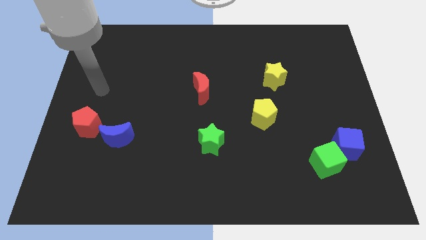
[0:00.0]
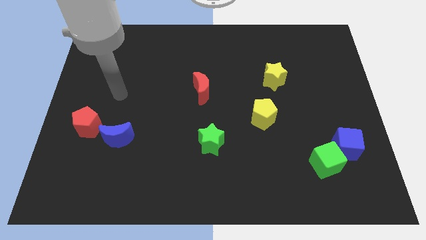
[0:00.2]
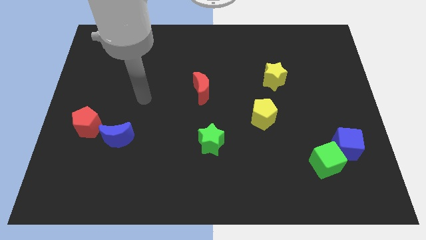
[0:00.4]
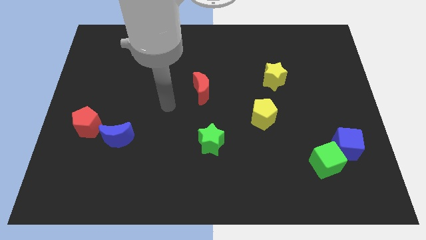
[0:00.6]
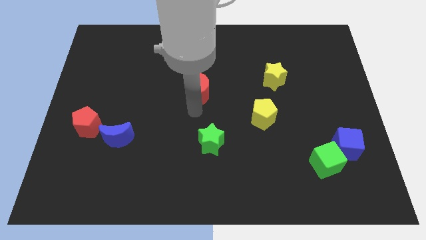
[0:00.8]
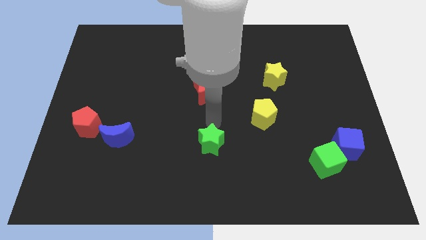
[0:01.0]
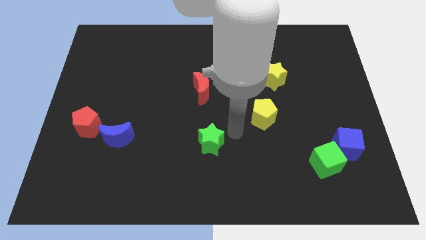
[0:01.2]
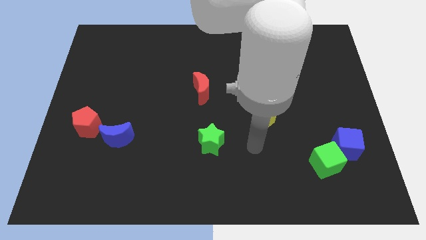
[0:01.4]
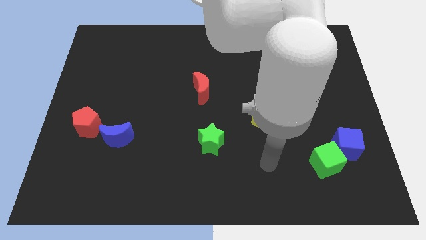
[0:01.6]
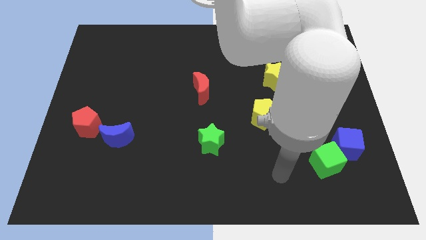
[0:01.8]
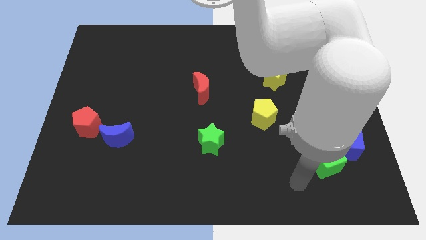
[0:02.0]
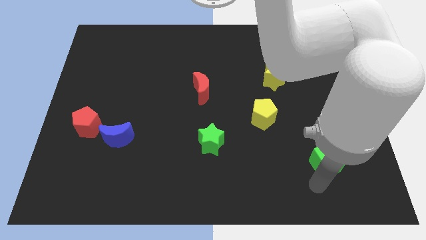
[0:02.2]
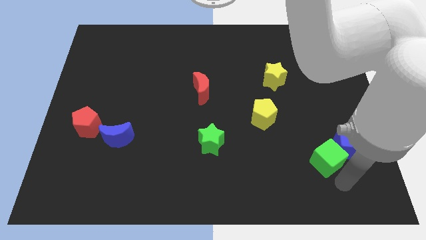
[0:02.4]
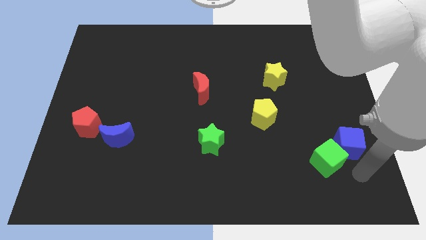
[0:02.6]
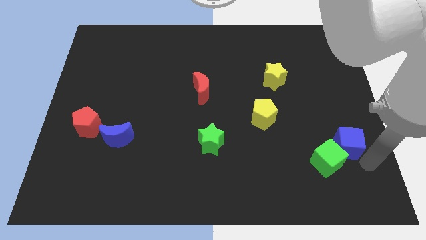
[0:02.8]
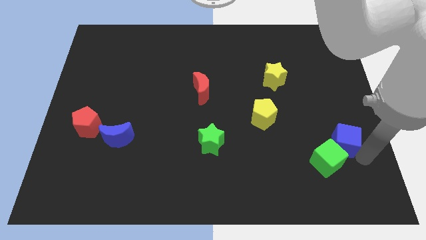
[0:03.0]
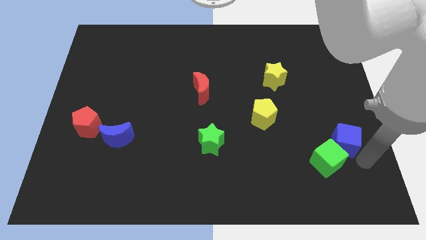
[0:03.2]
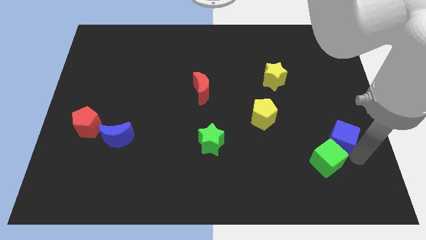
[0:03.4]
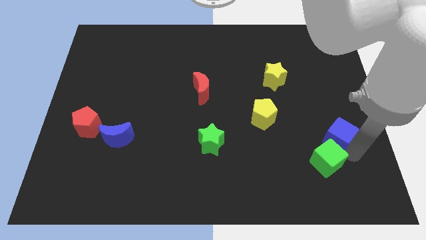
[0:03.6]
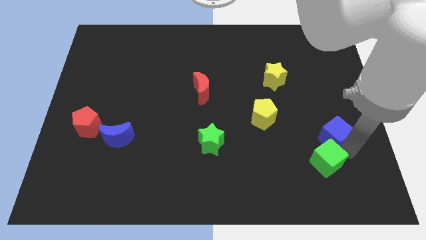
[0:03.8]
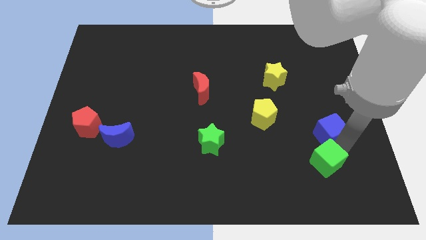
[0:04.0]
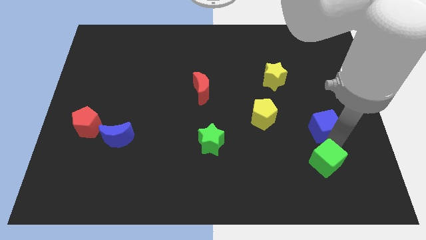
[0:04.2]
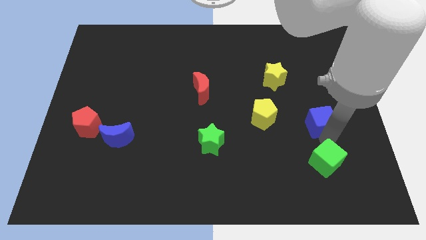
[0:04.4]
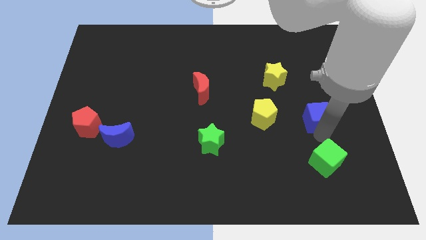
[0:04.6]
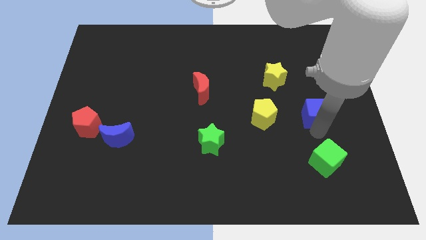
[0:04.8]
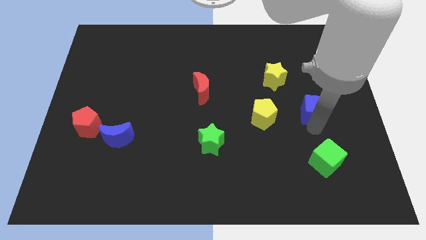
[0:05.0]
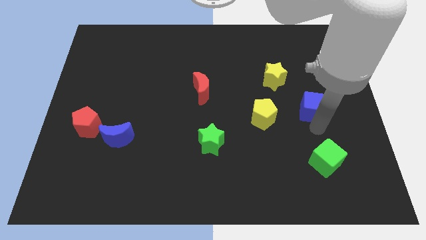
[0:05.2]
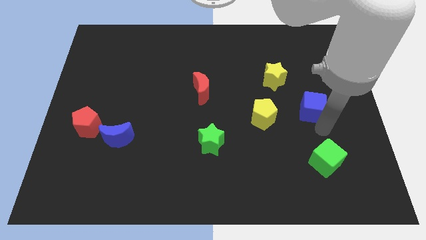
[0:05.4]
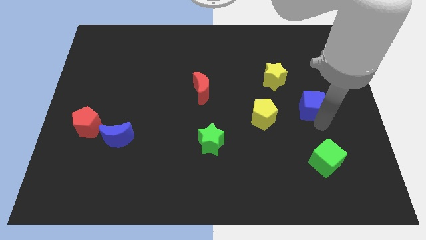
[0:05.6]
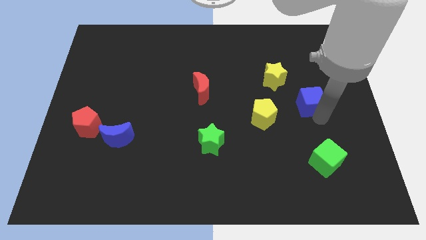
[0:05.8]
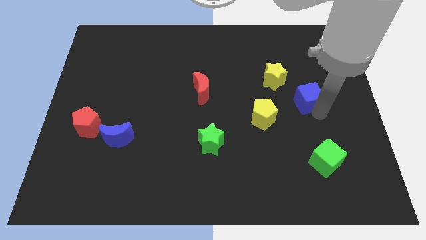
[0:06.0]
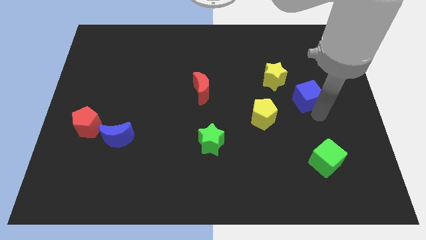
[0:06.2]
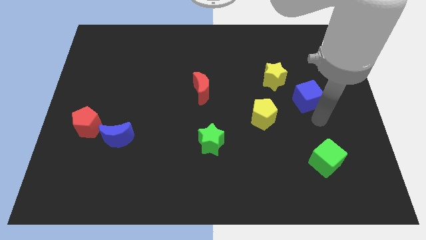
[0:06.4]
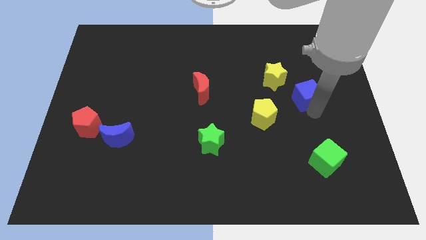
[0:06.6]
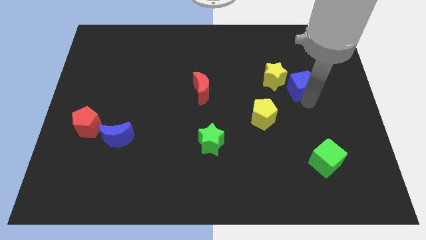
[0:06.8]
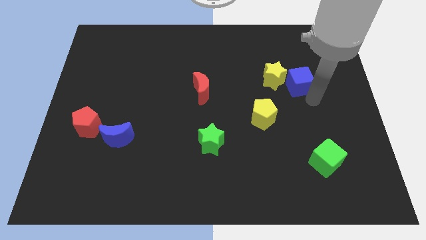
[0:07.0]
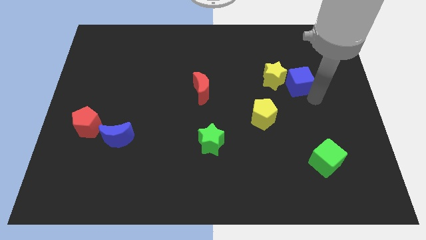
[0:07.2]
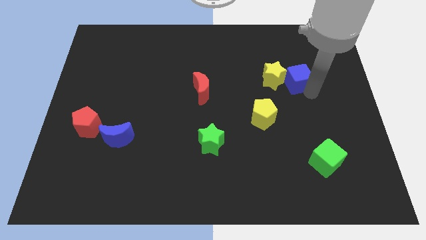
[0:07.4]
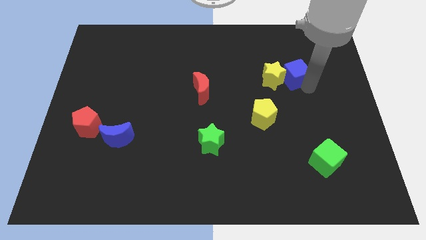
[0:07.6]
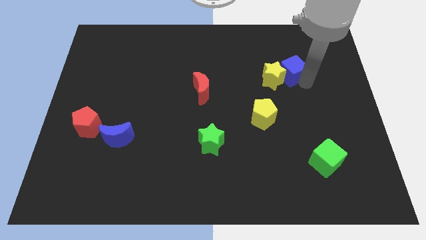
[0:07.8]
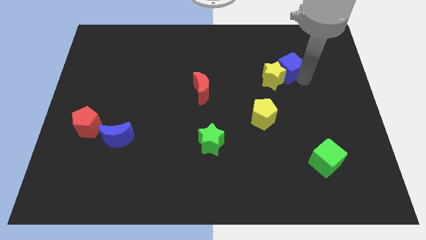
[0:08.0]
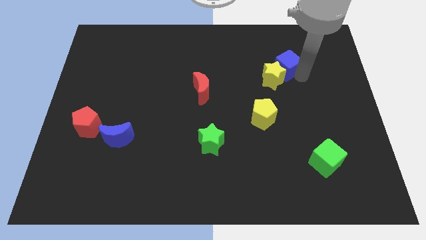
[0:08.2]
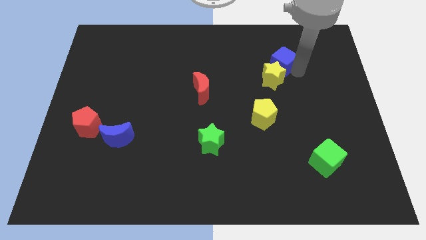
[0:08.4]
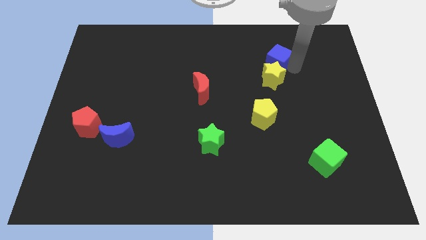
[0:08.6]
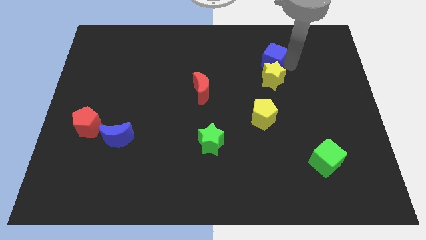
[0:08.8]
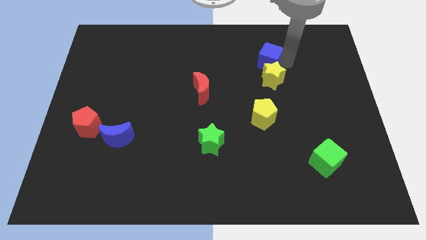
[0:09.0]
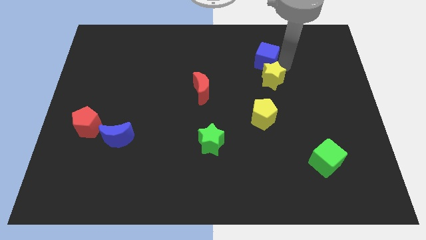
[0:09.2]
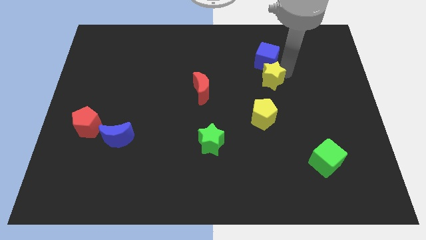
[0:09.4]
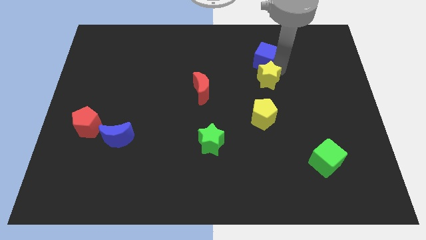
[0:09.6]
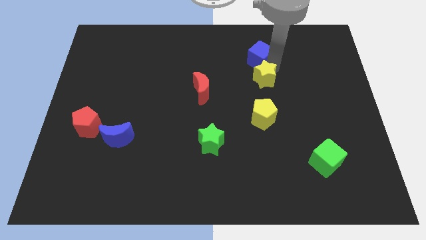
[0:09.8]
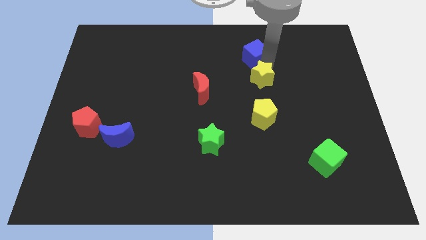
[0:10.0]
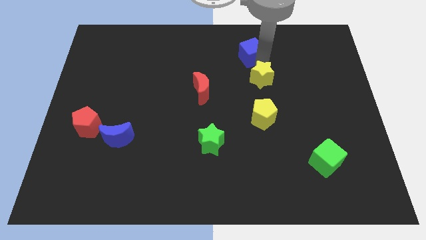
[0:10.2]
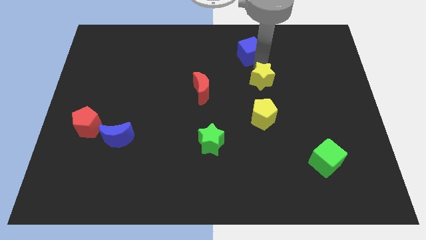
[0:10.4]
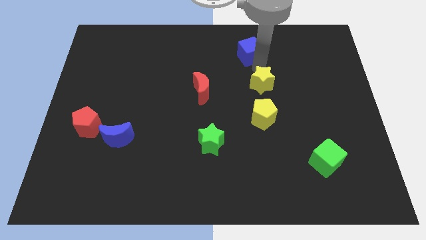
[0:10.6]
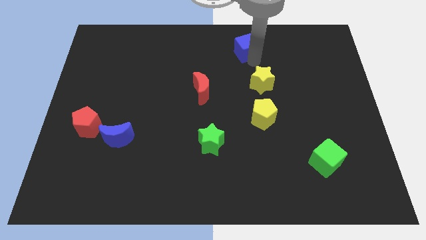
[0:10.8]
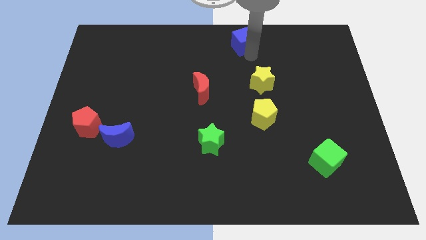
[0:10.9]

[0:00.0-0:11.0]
move the blue cube to the towards your base

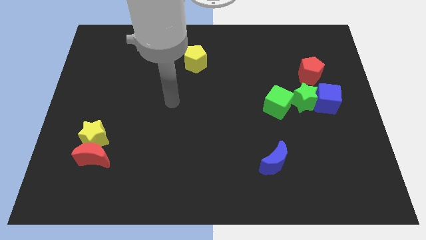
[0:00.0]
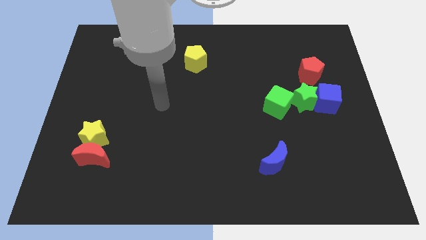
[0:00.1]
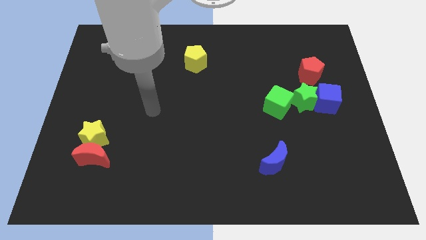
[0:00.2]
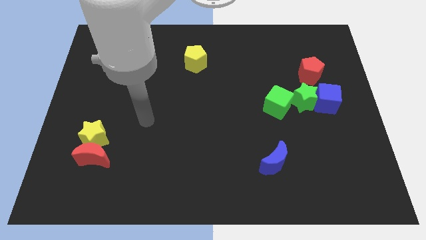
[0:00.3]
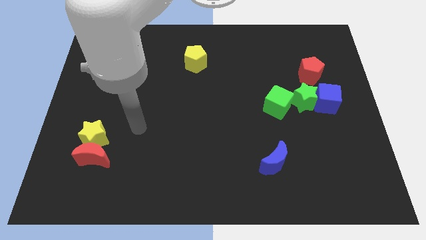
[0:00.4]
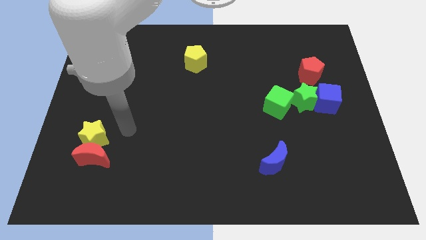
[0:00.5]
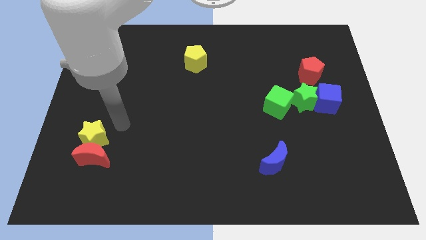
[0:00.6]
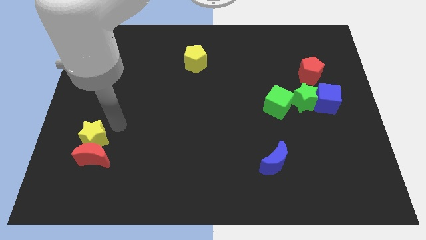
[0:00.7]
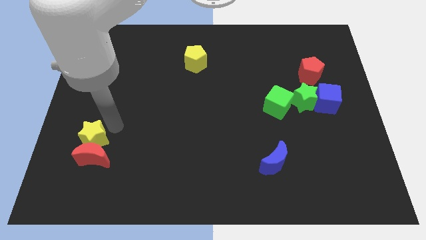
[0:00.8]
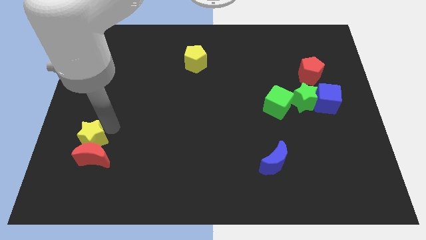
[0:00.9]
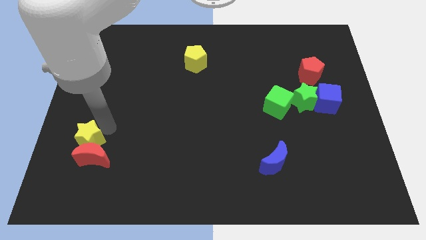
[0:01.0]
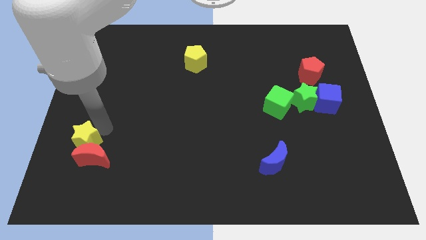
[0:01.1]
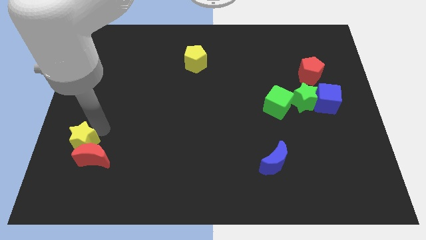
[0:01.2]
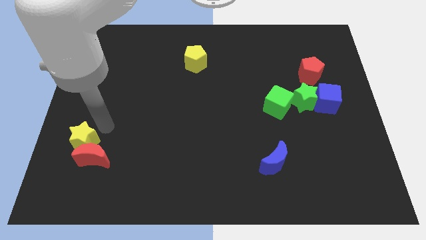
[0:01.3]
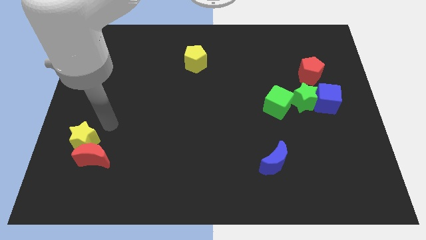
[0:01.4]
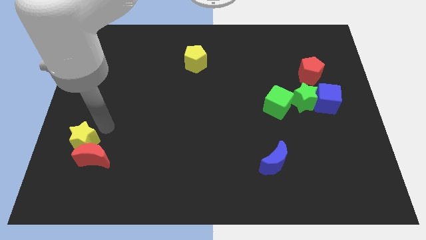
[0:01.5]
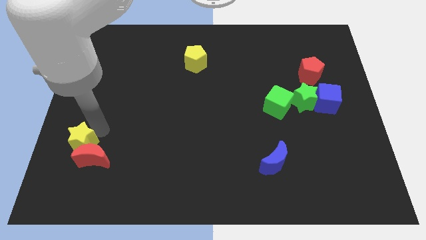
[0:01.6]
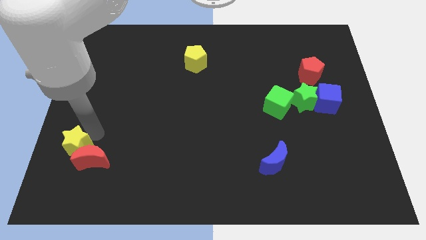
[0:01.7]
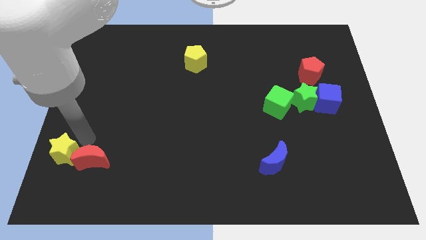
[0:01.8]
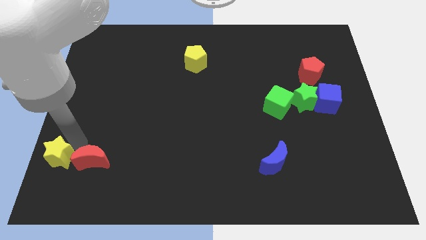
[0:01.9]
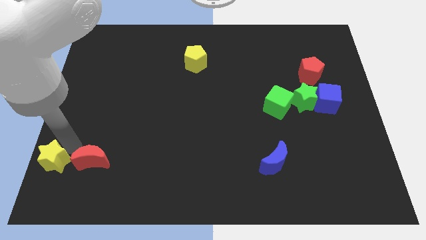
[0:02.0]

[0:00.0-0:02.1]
push the yellow star to the lower left corner
